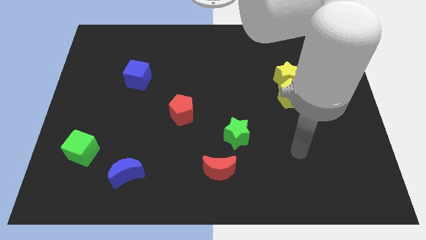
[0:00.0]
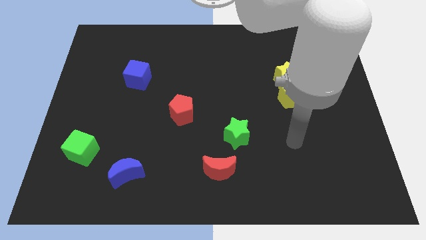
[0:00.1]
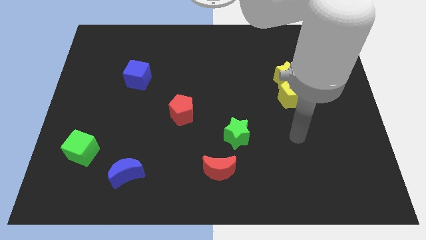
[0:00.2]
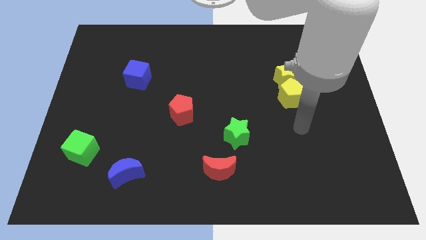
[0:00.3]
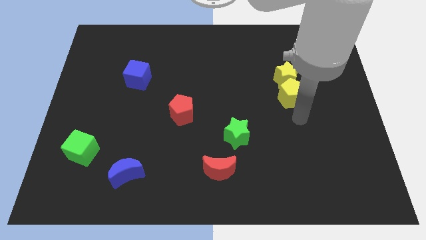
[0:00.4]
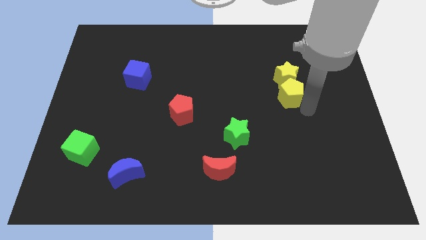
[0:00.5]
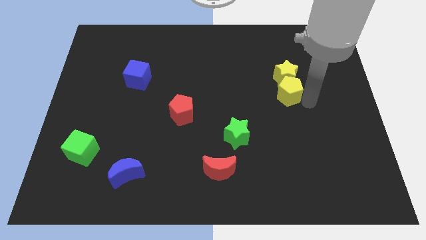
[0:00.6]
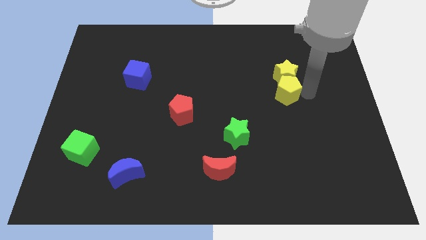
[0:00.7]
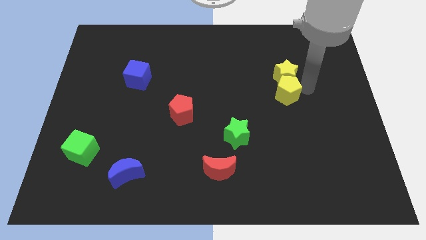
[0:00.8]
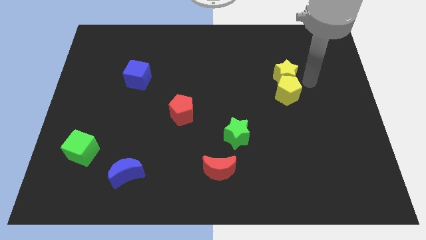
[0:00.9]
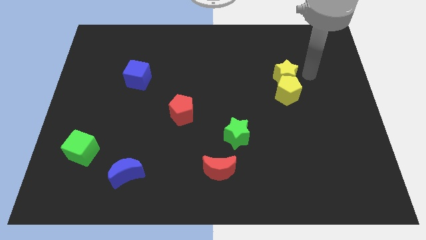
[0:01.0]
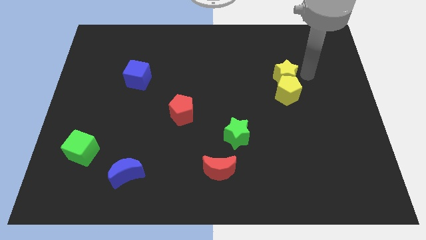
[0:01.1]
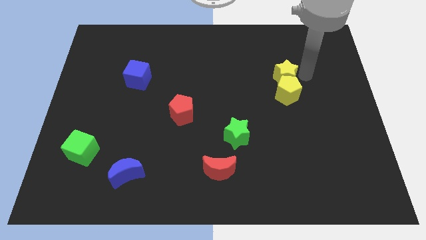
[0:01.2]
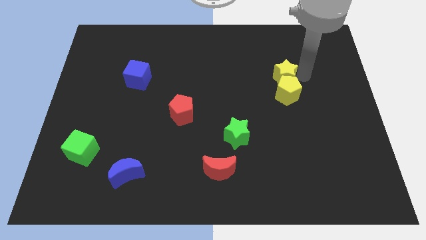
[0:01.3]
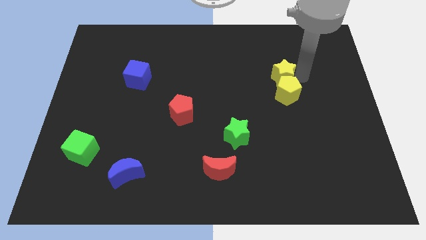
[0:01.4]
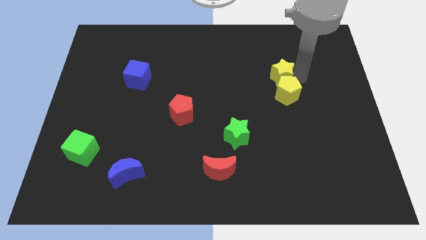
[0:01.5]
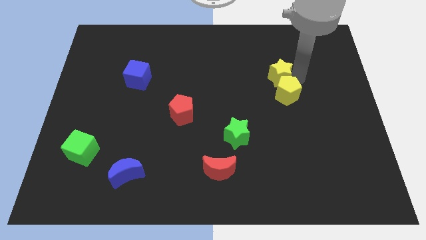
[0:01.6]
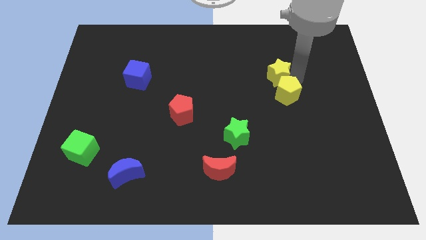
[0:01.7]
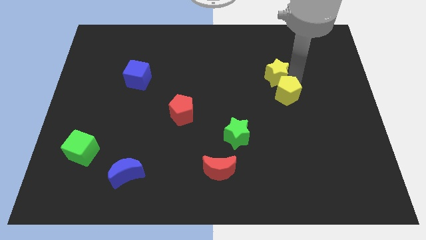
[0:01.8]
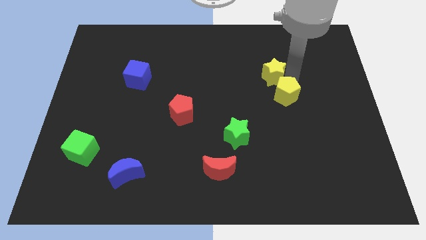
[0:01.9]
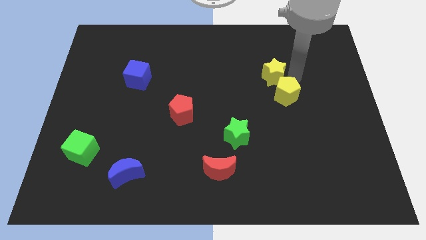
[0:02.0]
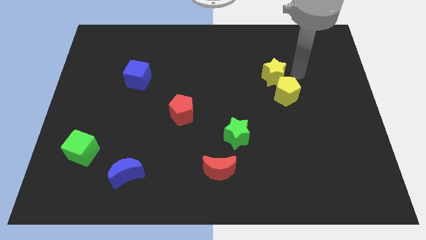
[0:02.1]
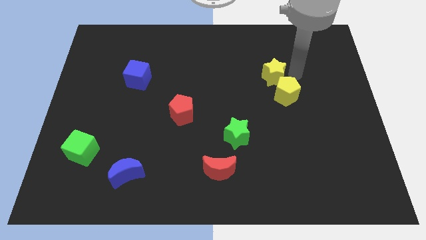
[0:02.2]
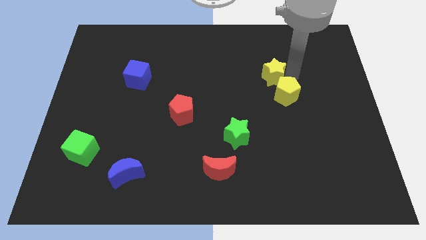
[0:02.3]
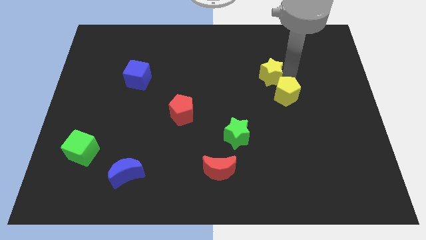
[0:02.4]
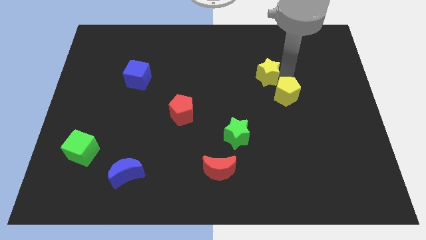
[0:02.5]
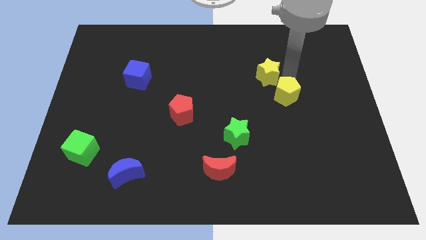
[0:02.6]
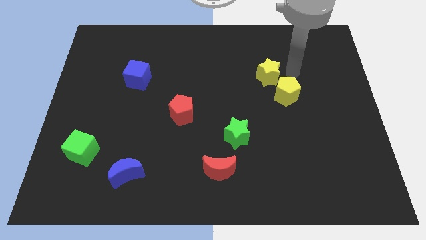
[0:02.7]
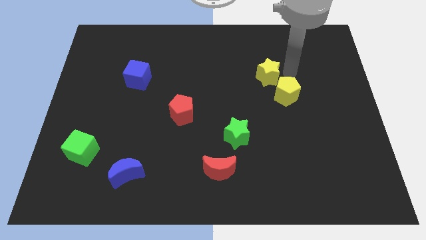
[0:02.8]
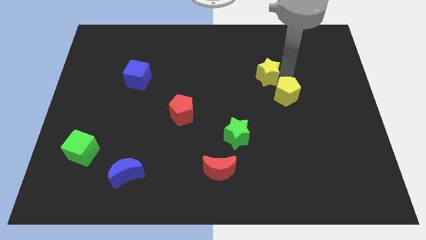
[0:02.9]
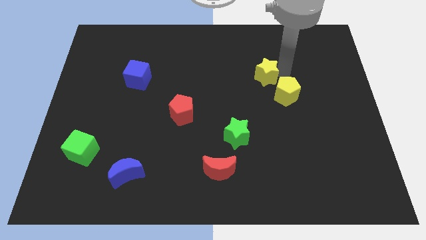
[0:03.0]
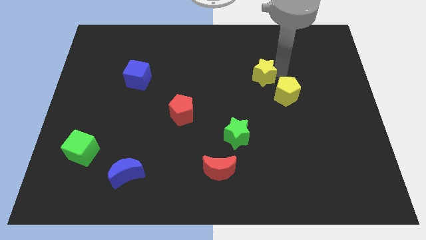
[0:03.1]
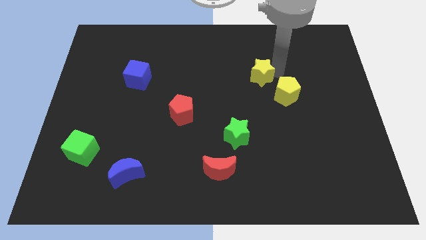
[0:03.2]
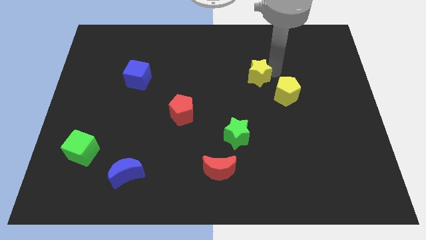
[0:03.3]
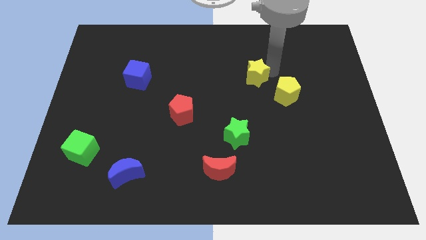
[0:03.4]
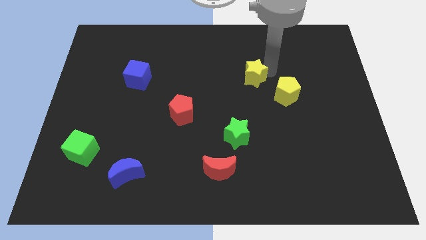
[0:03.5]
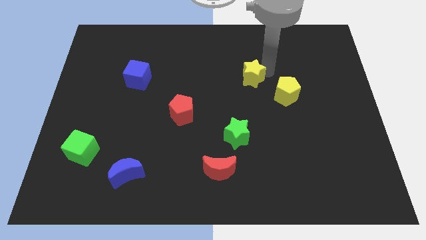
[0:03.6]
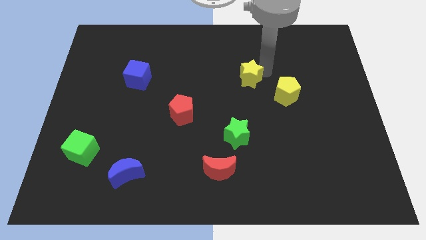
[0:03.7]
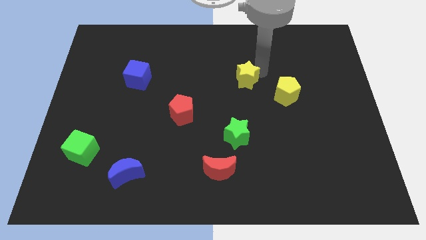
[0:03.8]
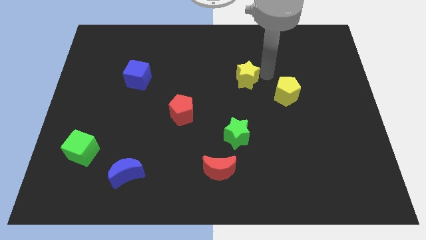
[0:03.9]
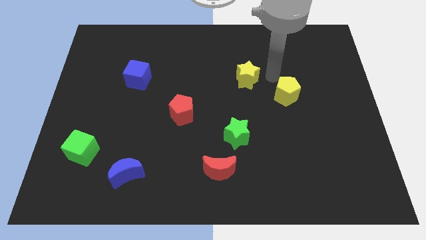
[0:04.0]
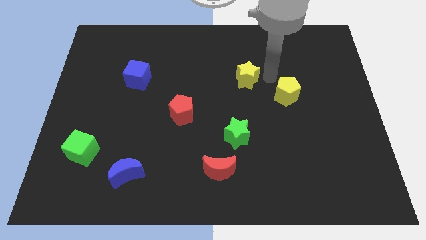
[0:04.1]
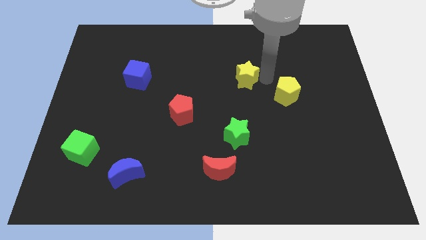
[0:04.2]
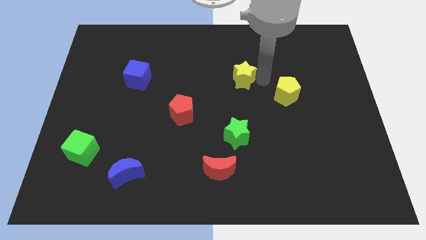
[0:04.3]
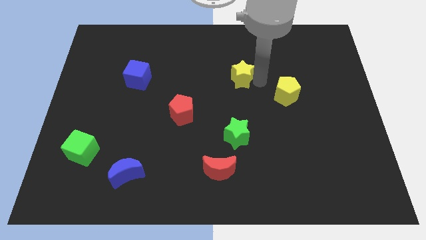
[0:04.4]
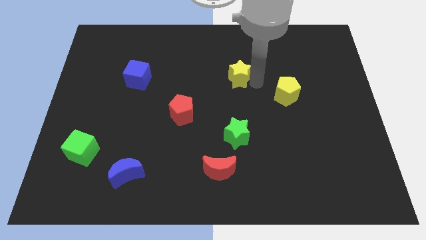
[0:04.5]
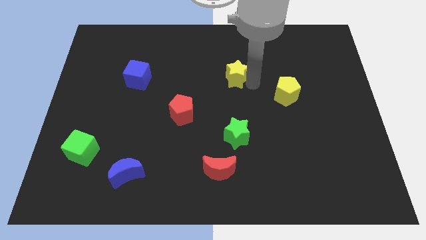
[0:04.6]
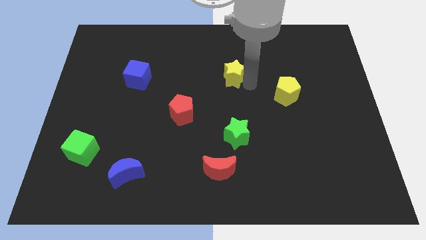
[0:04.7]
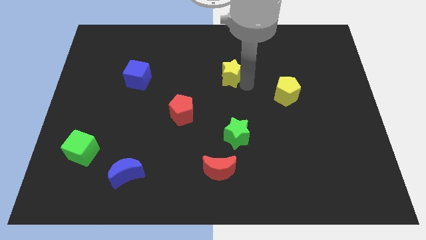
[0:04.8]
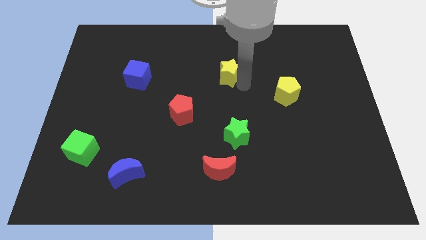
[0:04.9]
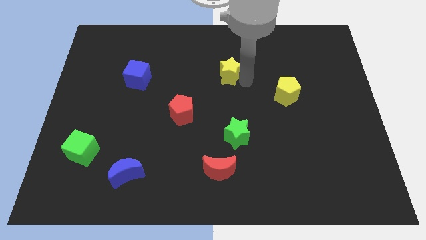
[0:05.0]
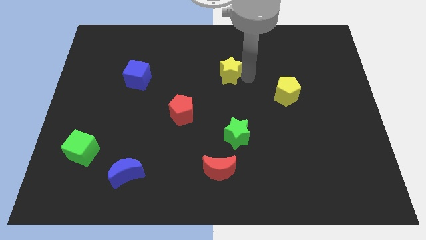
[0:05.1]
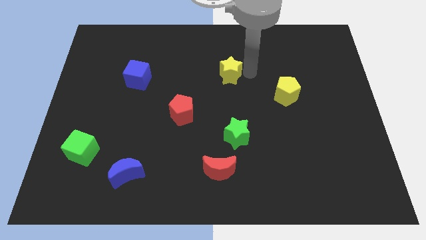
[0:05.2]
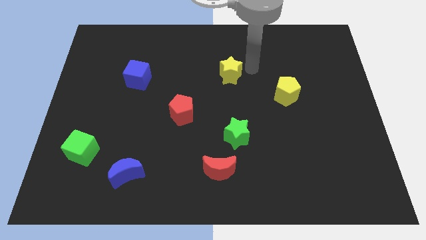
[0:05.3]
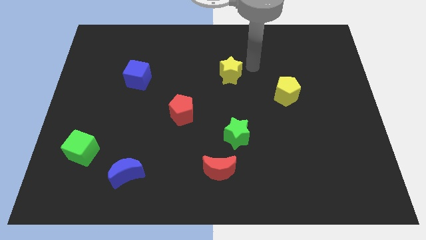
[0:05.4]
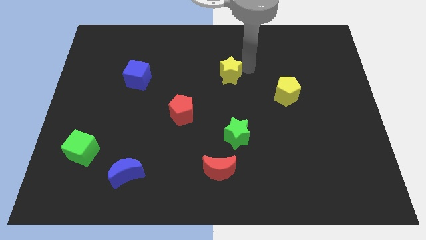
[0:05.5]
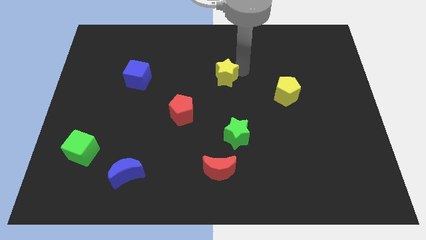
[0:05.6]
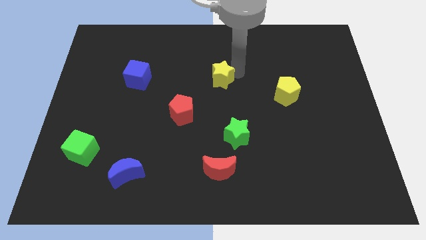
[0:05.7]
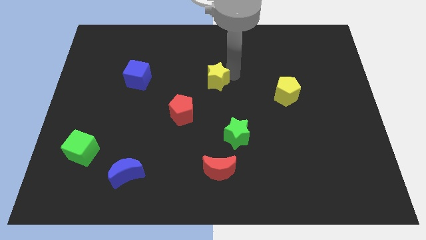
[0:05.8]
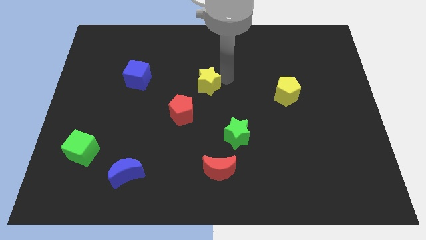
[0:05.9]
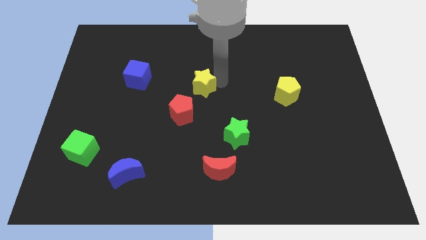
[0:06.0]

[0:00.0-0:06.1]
push the yellow star to the left

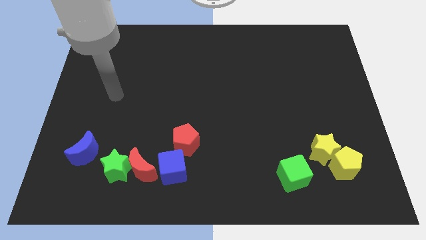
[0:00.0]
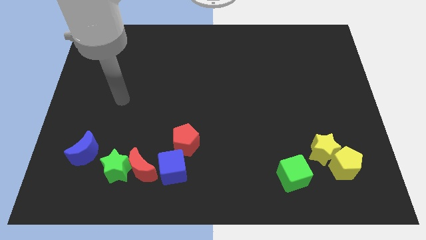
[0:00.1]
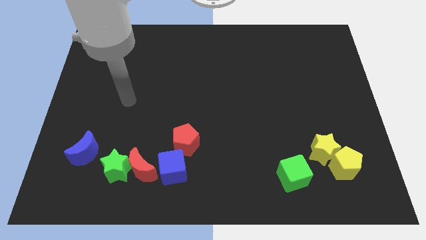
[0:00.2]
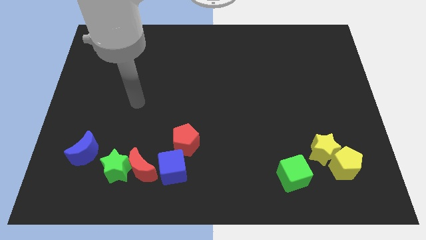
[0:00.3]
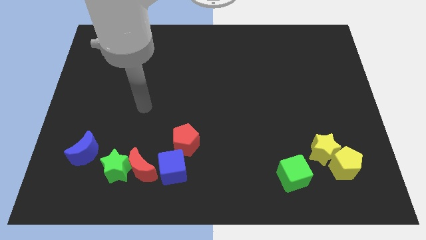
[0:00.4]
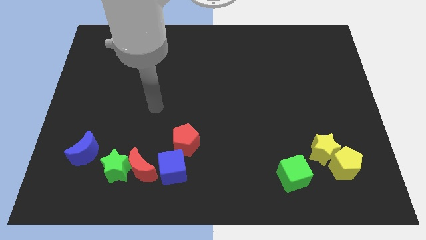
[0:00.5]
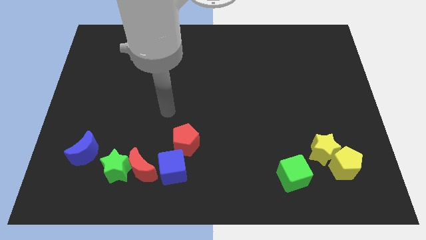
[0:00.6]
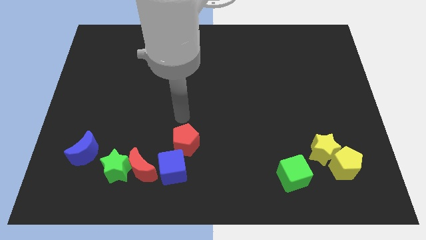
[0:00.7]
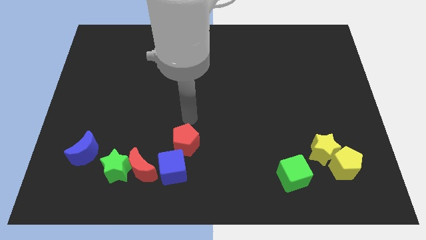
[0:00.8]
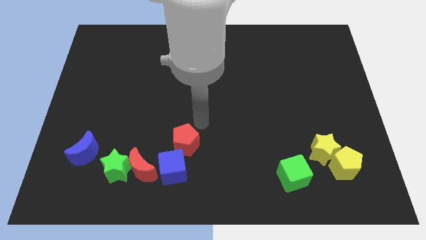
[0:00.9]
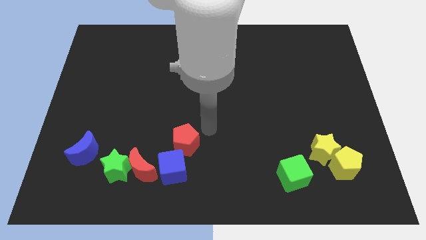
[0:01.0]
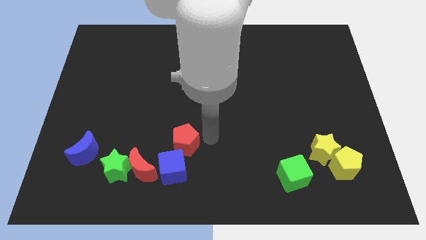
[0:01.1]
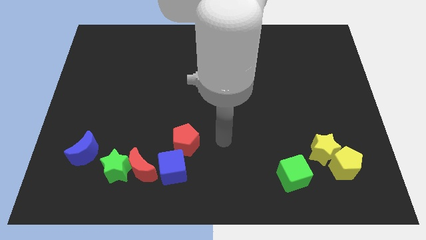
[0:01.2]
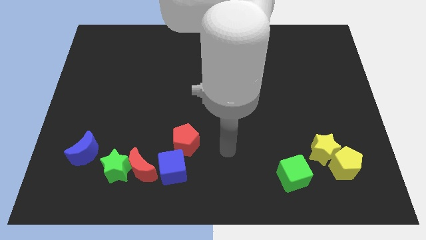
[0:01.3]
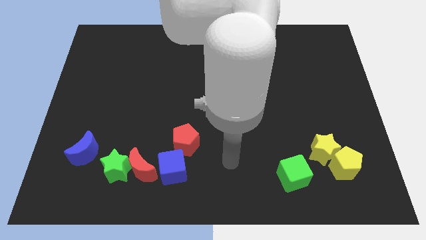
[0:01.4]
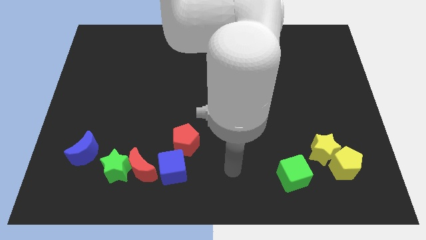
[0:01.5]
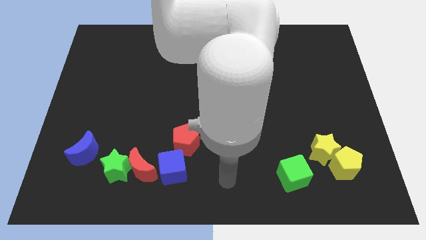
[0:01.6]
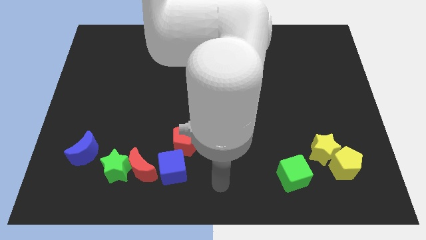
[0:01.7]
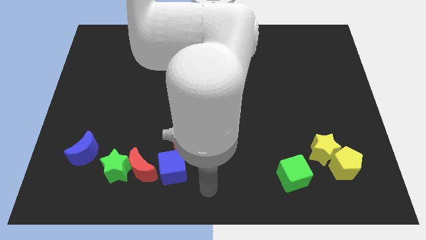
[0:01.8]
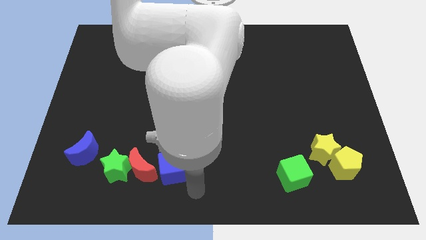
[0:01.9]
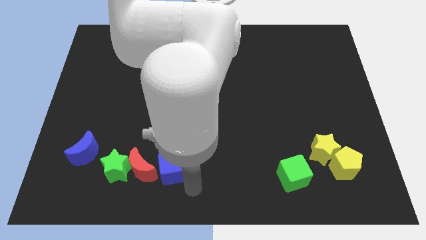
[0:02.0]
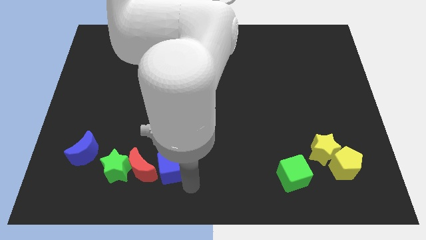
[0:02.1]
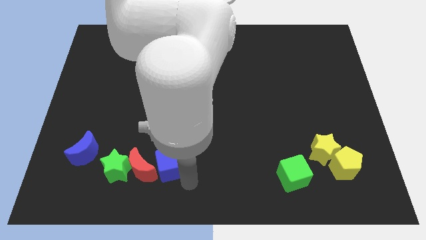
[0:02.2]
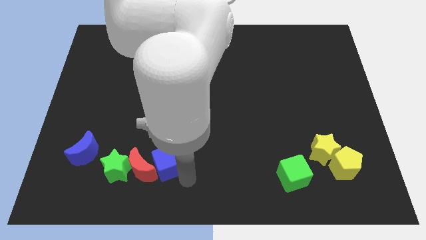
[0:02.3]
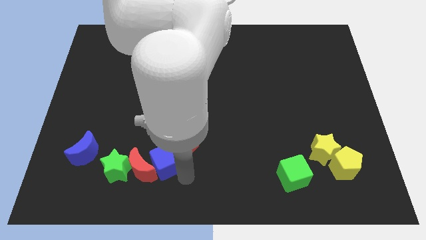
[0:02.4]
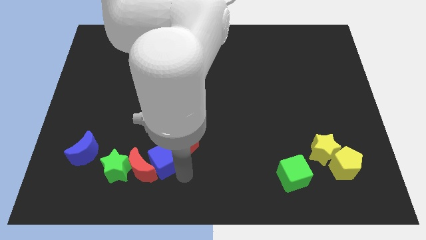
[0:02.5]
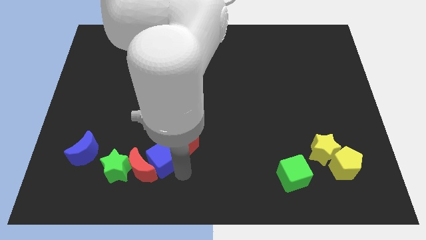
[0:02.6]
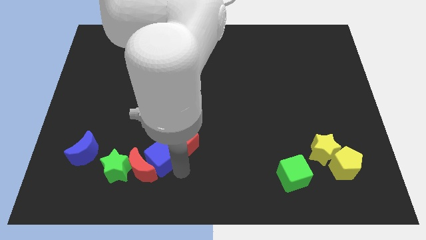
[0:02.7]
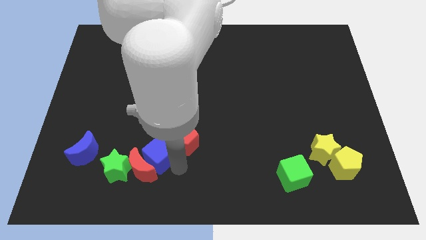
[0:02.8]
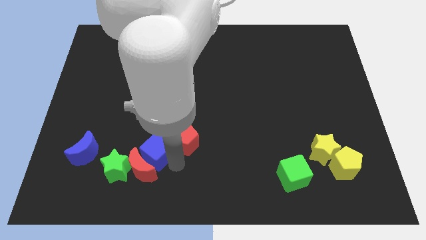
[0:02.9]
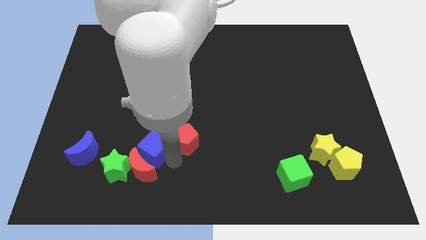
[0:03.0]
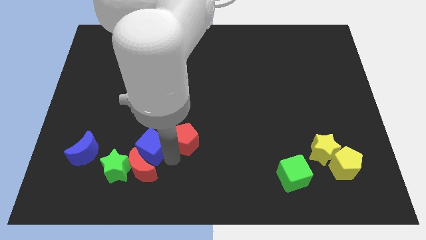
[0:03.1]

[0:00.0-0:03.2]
slightly move the blue cube upwards and then left
